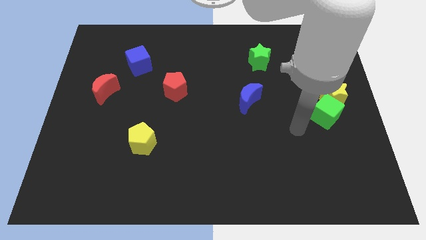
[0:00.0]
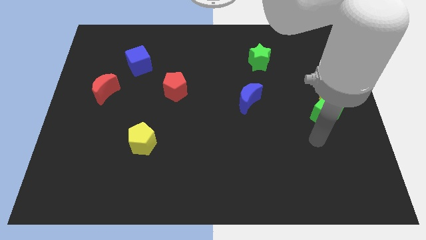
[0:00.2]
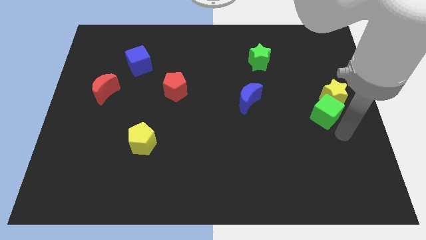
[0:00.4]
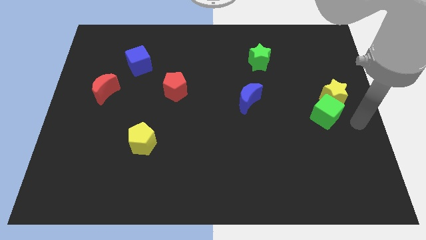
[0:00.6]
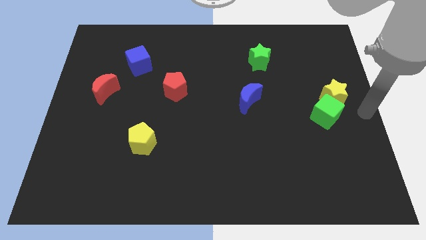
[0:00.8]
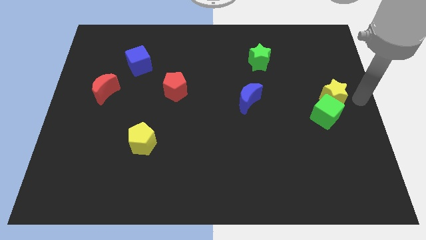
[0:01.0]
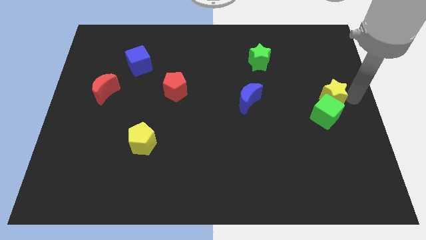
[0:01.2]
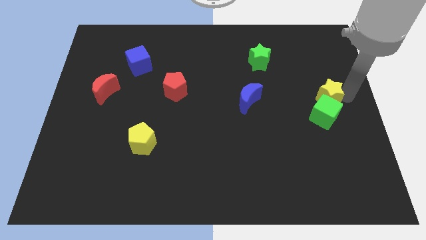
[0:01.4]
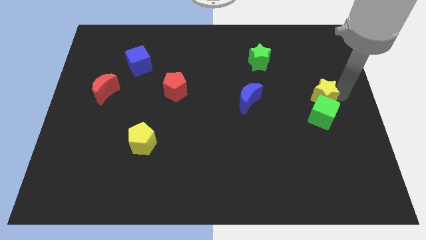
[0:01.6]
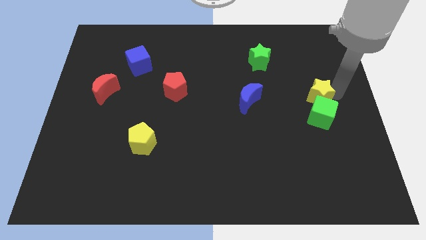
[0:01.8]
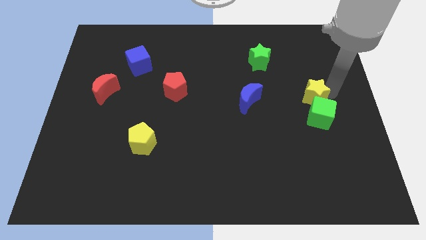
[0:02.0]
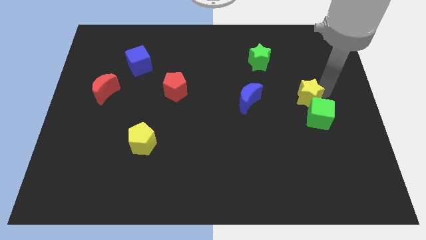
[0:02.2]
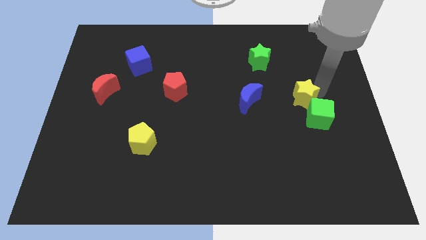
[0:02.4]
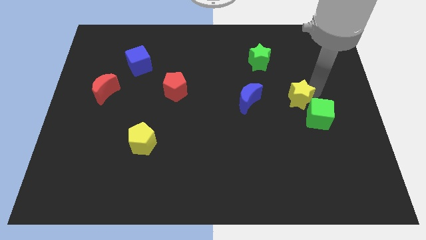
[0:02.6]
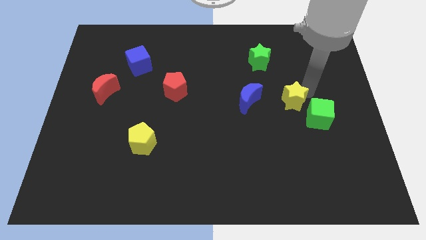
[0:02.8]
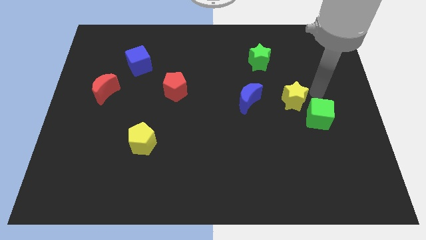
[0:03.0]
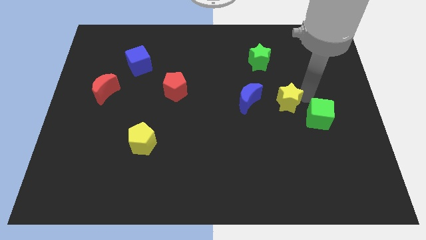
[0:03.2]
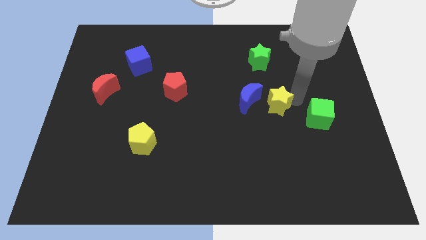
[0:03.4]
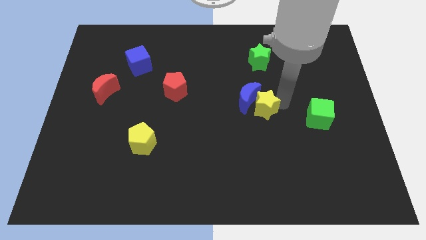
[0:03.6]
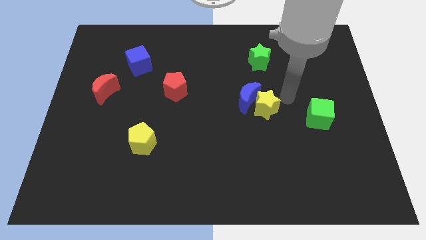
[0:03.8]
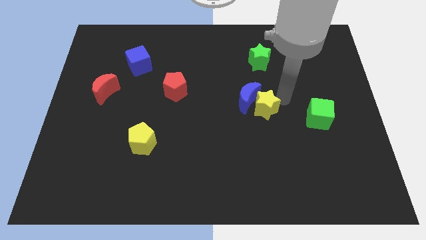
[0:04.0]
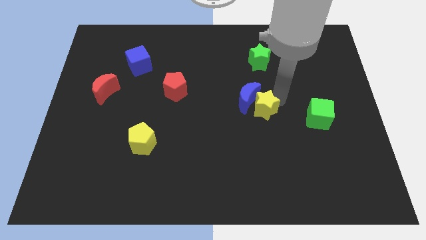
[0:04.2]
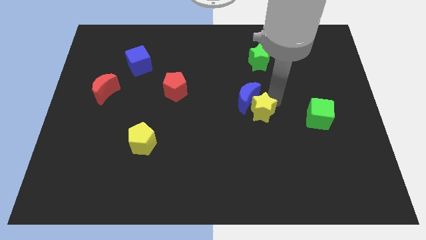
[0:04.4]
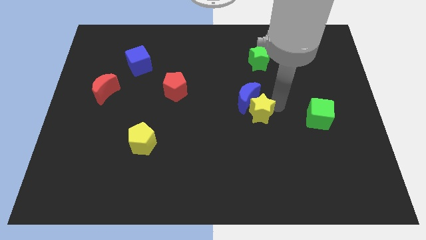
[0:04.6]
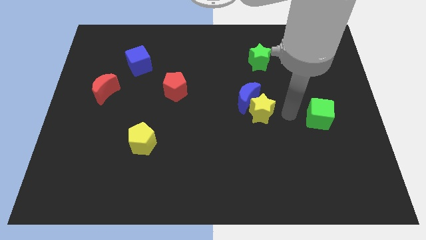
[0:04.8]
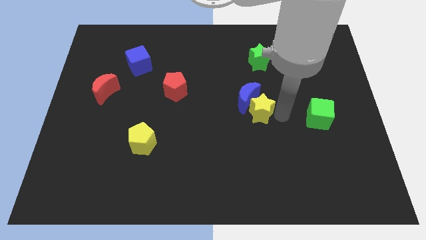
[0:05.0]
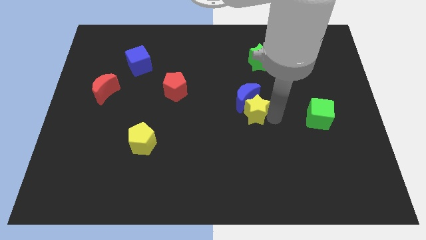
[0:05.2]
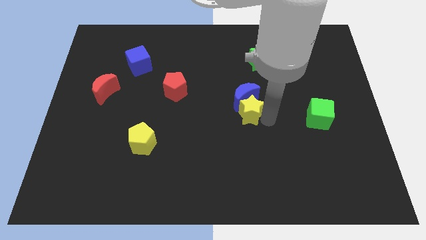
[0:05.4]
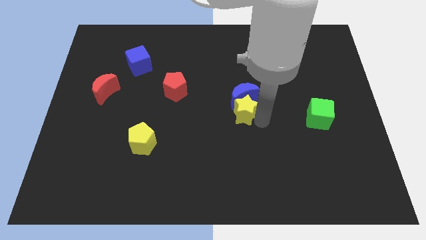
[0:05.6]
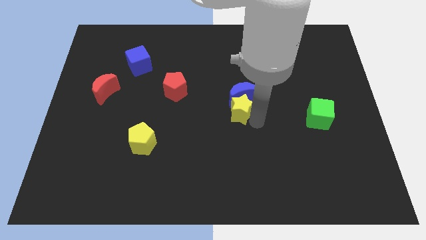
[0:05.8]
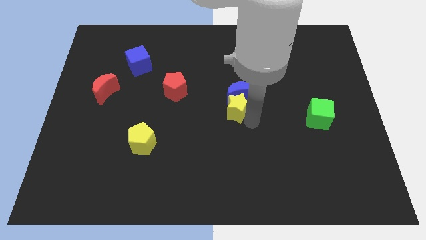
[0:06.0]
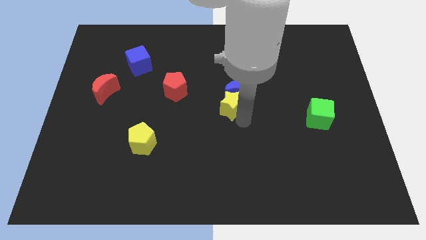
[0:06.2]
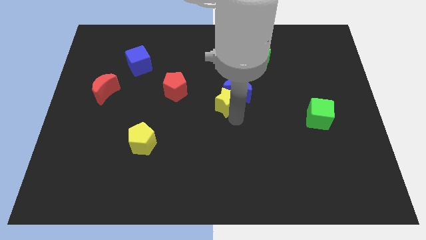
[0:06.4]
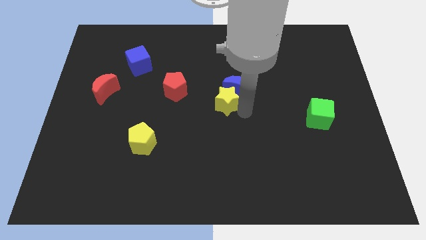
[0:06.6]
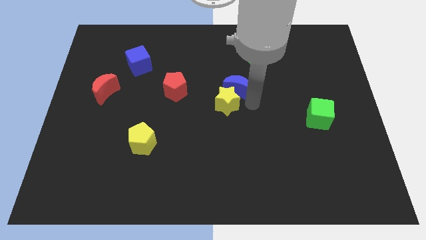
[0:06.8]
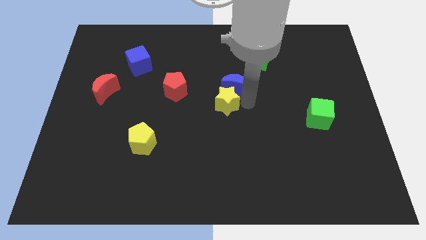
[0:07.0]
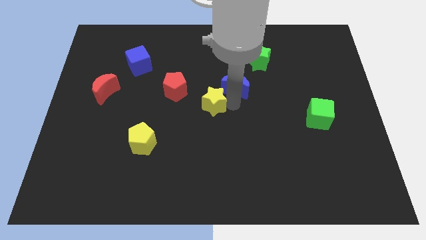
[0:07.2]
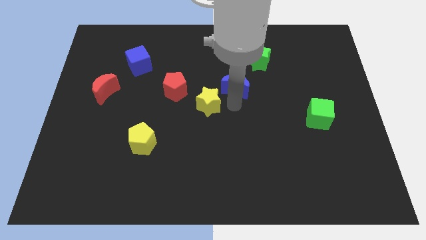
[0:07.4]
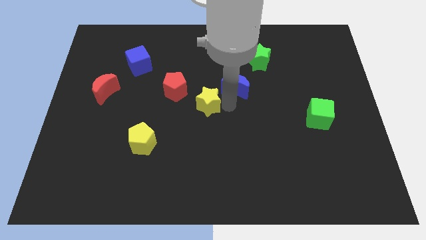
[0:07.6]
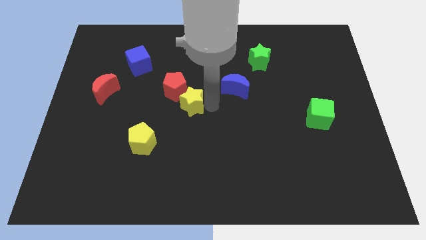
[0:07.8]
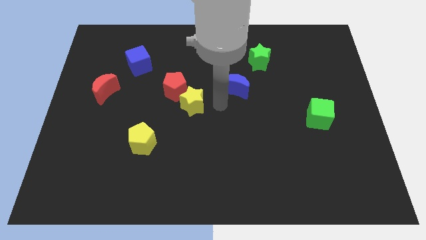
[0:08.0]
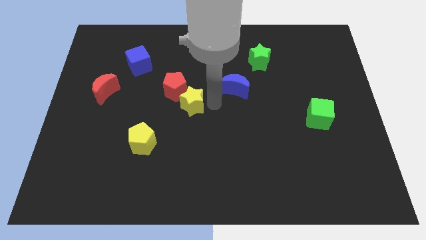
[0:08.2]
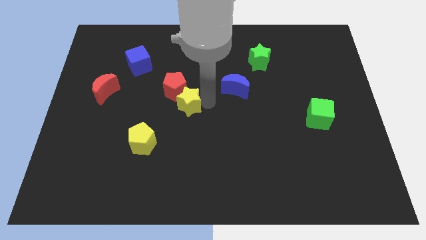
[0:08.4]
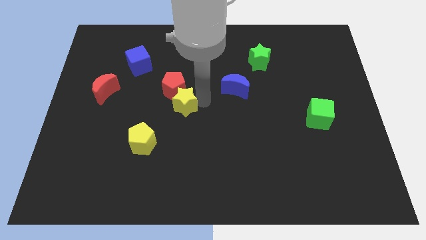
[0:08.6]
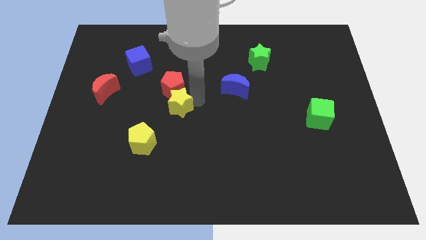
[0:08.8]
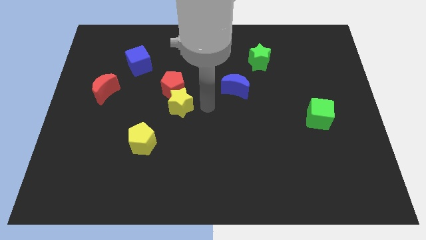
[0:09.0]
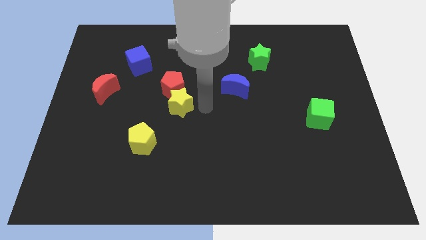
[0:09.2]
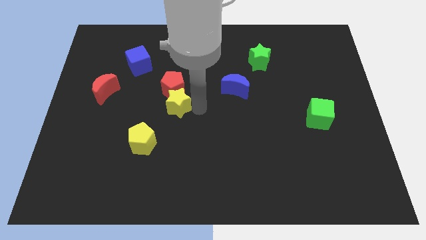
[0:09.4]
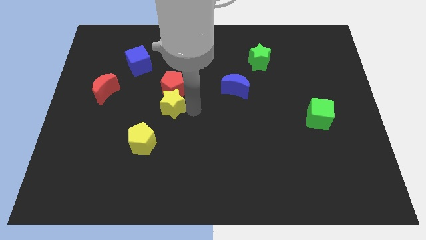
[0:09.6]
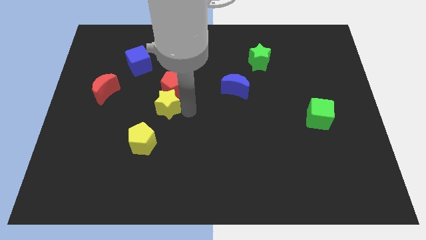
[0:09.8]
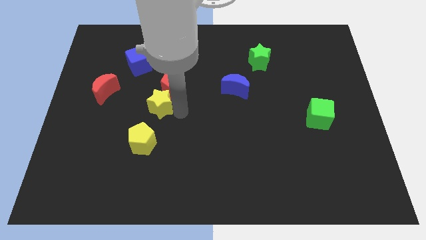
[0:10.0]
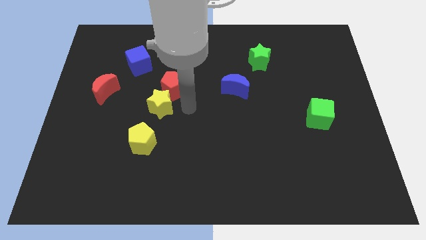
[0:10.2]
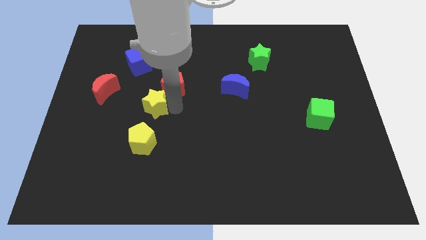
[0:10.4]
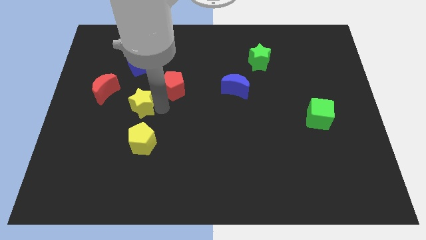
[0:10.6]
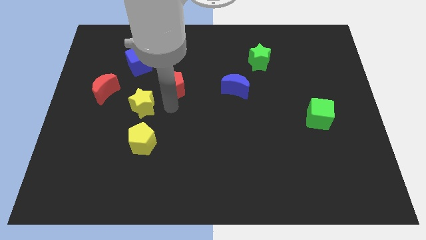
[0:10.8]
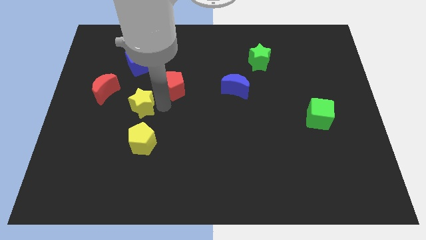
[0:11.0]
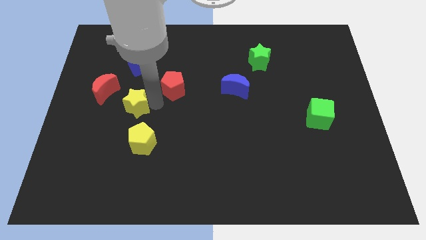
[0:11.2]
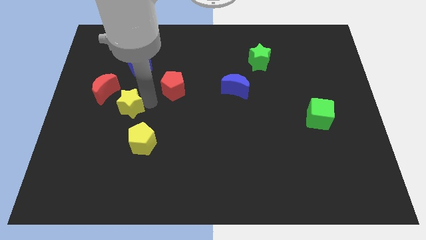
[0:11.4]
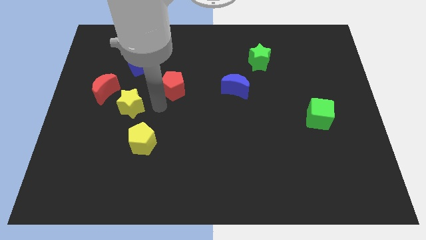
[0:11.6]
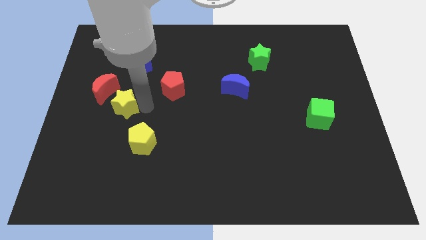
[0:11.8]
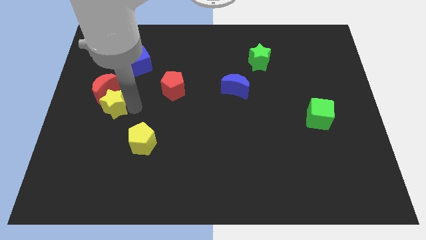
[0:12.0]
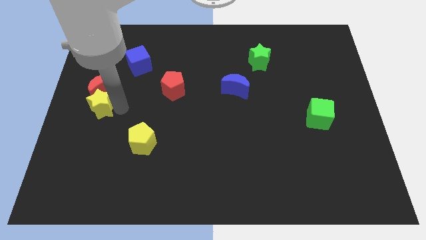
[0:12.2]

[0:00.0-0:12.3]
put the yellow star to the center left
